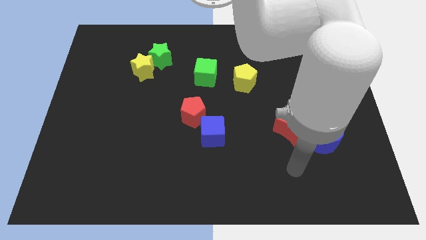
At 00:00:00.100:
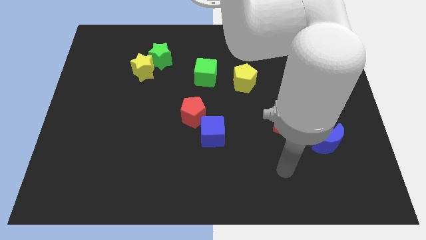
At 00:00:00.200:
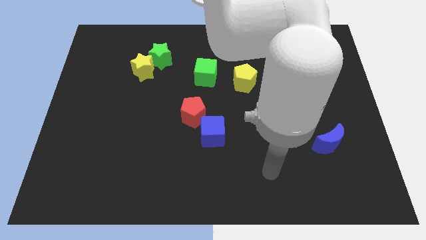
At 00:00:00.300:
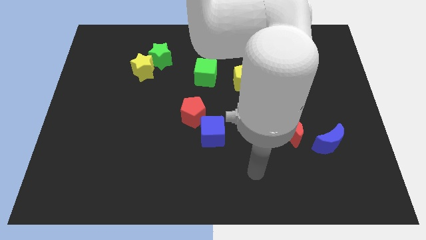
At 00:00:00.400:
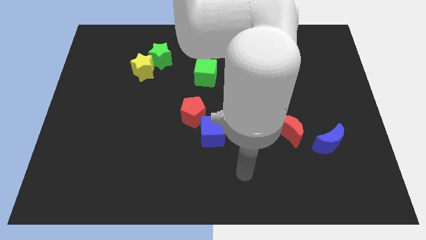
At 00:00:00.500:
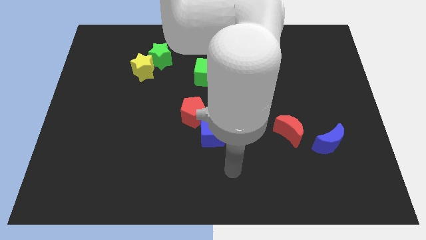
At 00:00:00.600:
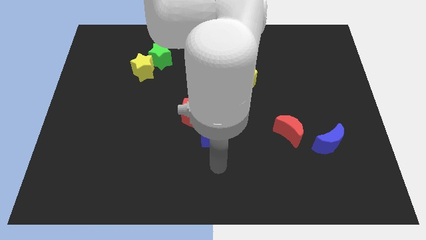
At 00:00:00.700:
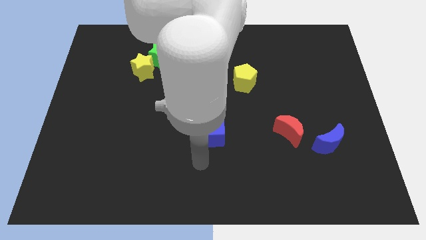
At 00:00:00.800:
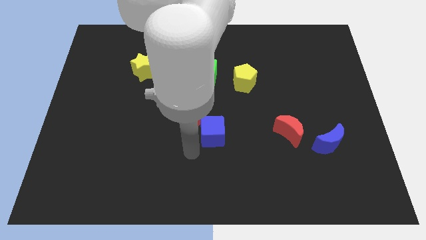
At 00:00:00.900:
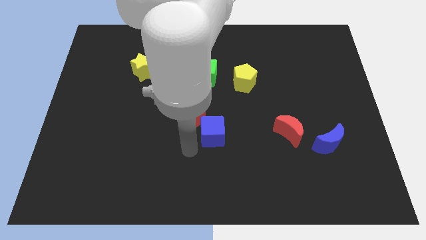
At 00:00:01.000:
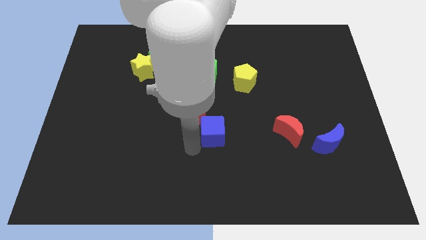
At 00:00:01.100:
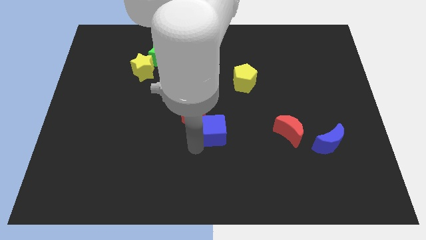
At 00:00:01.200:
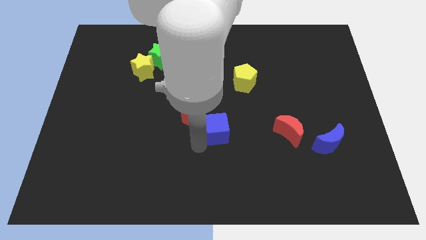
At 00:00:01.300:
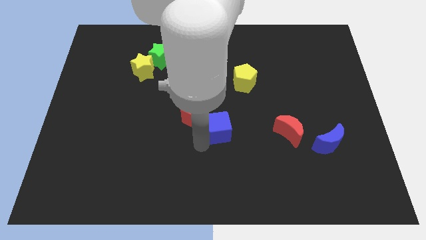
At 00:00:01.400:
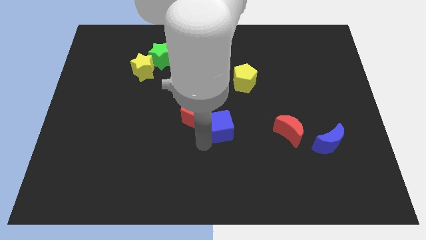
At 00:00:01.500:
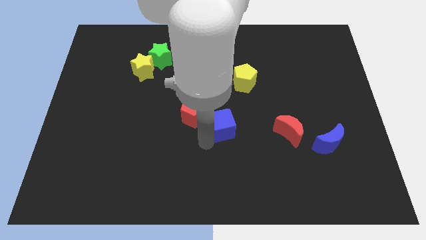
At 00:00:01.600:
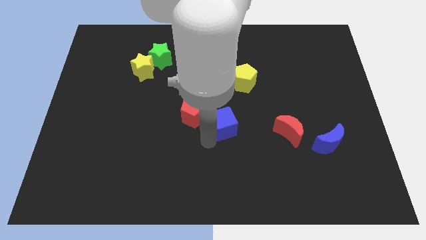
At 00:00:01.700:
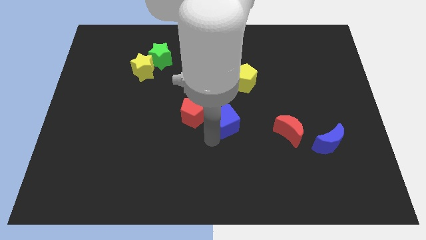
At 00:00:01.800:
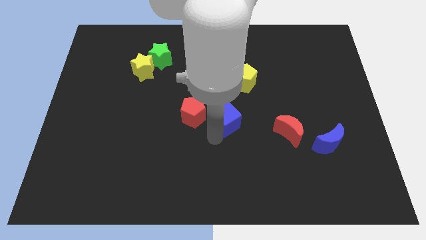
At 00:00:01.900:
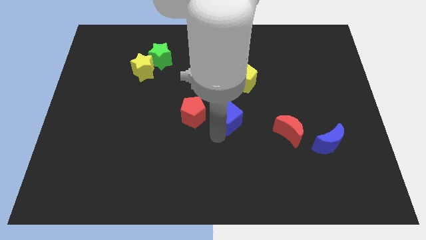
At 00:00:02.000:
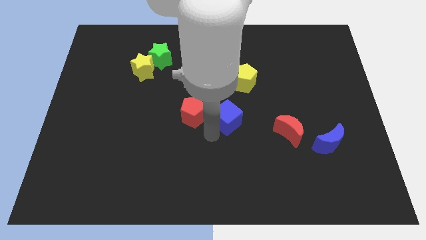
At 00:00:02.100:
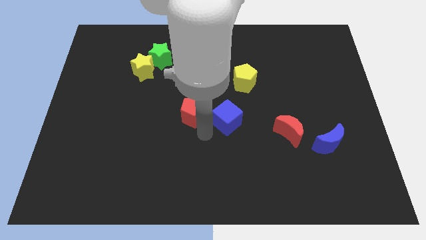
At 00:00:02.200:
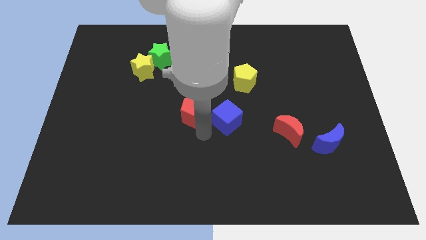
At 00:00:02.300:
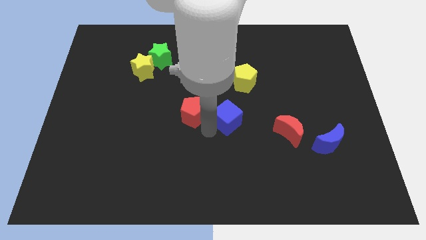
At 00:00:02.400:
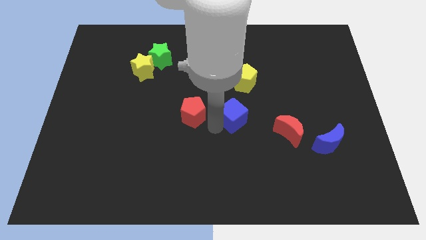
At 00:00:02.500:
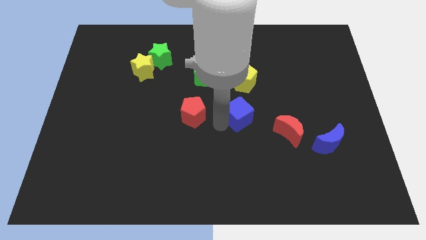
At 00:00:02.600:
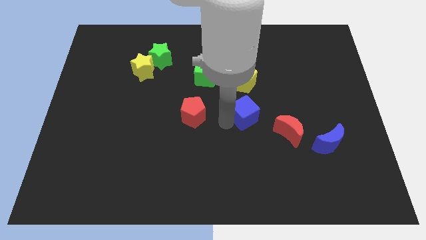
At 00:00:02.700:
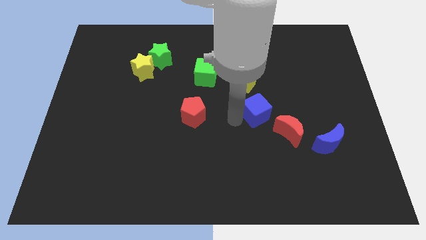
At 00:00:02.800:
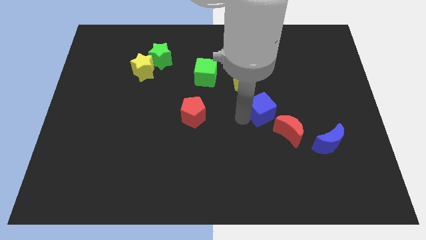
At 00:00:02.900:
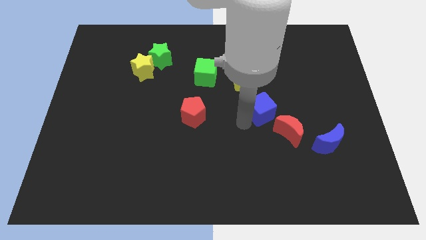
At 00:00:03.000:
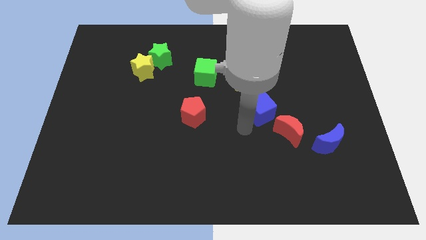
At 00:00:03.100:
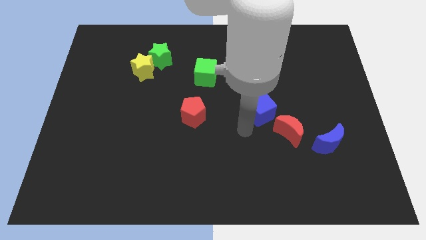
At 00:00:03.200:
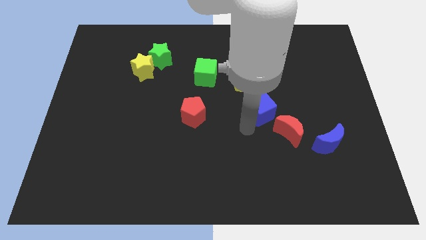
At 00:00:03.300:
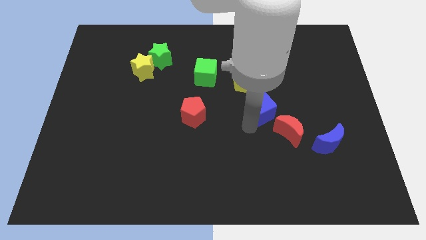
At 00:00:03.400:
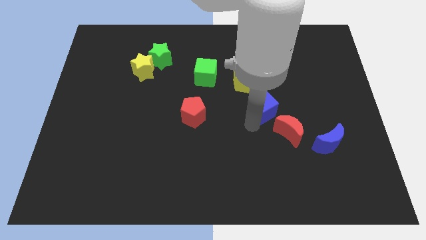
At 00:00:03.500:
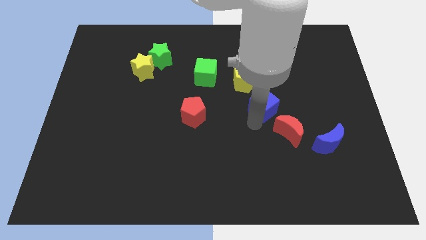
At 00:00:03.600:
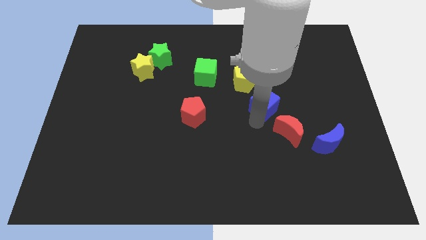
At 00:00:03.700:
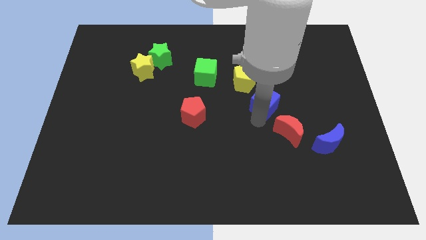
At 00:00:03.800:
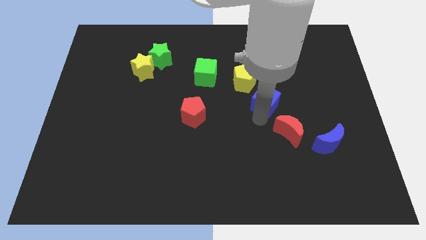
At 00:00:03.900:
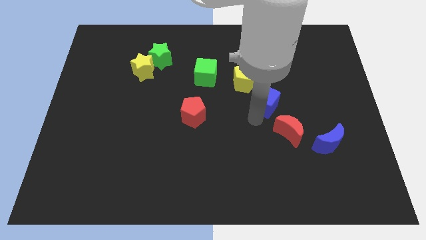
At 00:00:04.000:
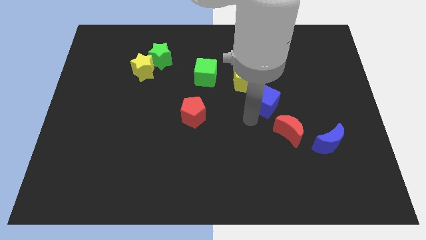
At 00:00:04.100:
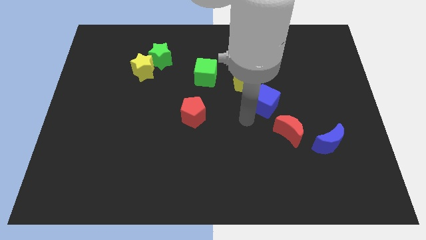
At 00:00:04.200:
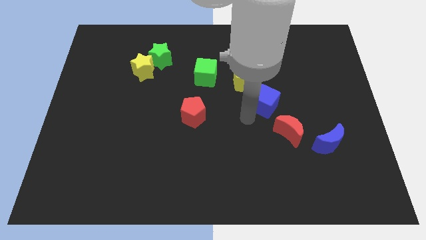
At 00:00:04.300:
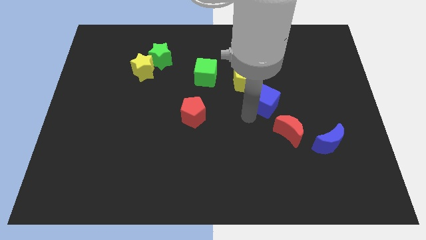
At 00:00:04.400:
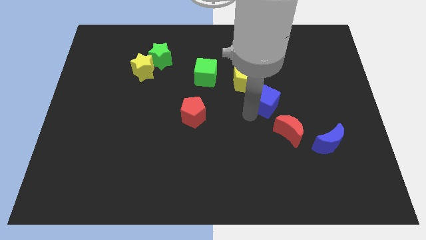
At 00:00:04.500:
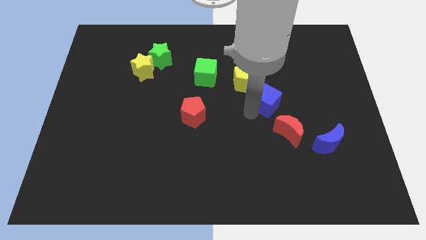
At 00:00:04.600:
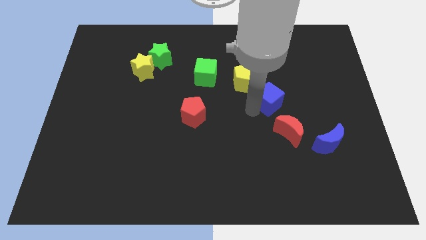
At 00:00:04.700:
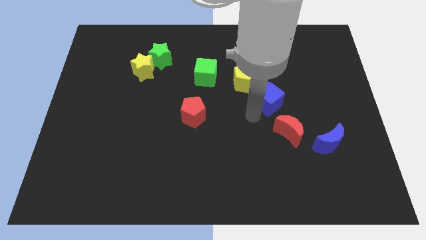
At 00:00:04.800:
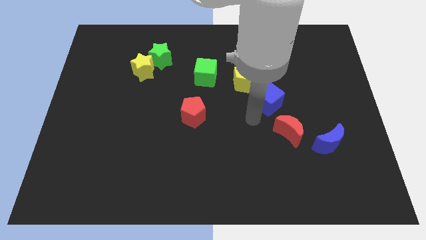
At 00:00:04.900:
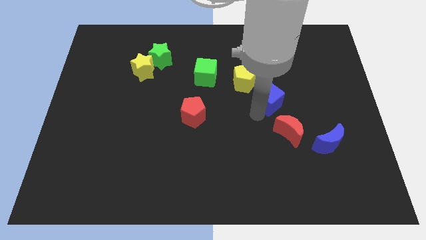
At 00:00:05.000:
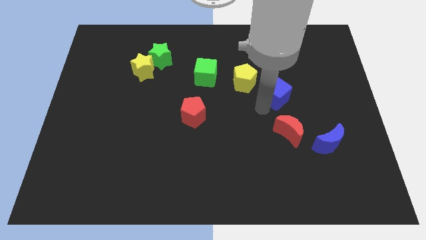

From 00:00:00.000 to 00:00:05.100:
slide the blue cube to the right side of the yellow pentagon
